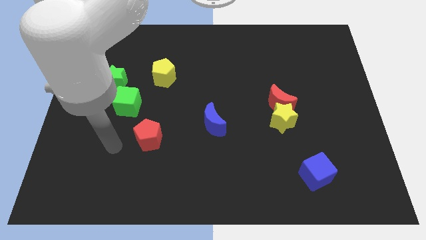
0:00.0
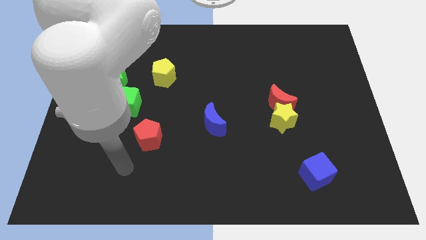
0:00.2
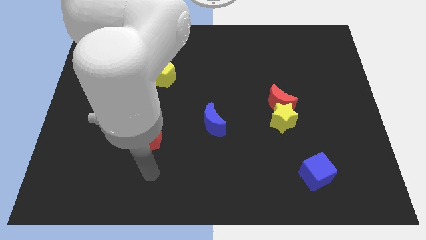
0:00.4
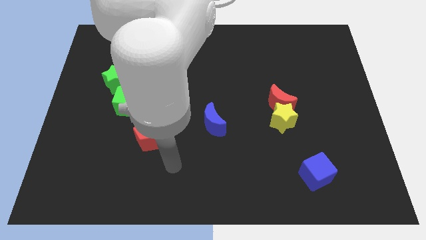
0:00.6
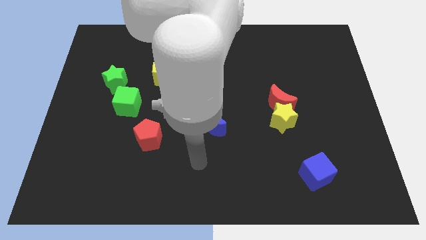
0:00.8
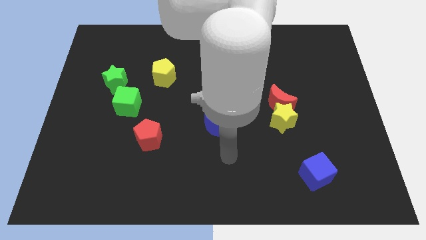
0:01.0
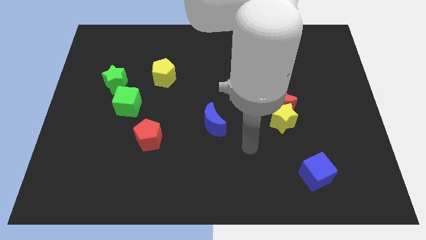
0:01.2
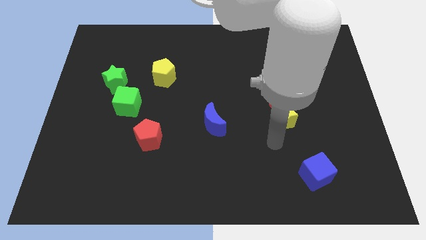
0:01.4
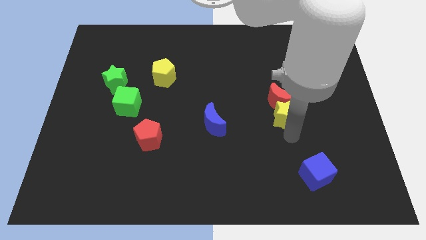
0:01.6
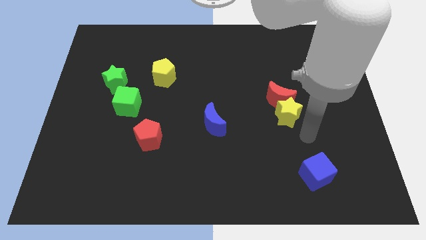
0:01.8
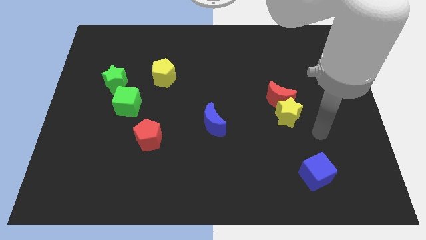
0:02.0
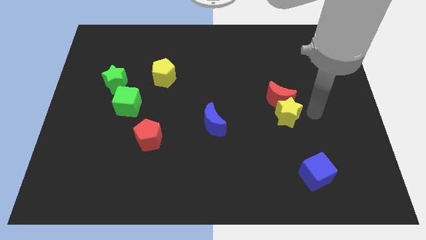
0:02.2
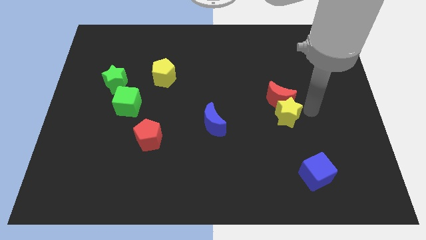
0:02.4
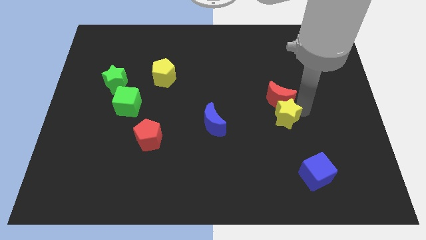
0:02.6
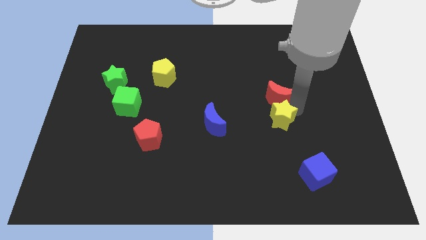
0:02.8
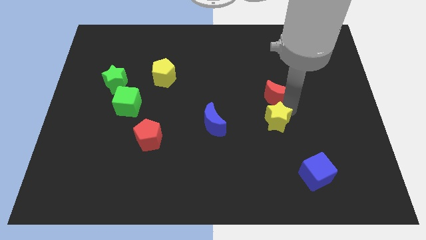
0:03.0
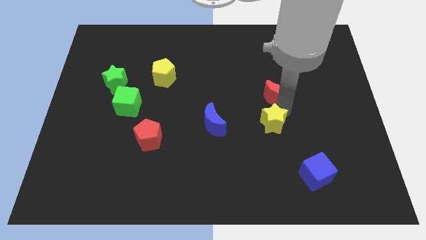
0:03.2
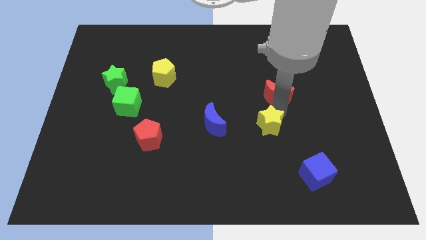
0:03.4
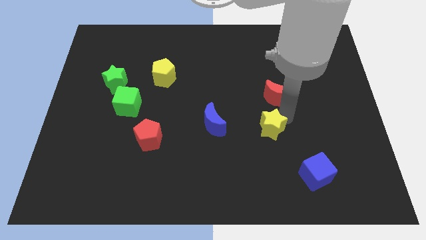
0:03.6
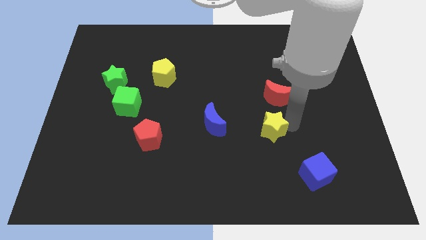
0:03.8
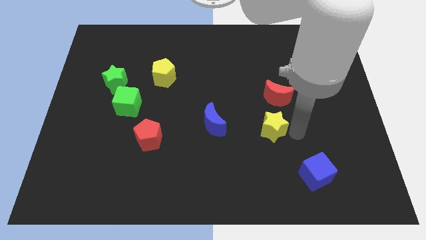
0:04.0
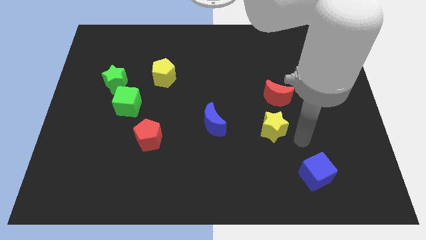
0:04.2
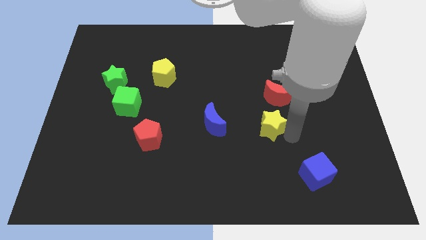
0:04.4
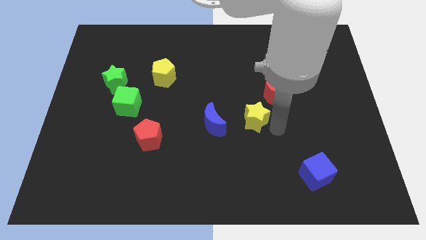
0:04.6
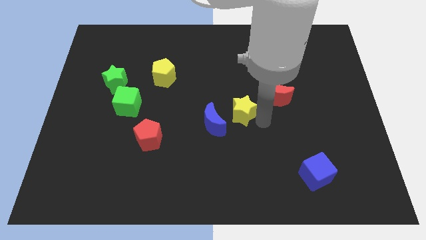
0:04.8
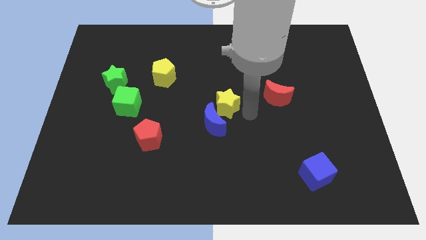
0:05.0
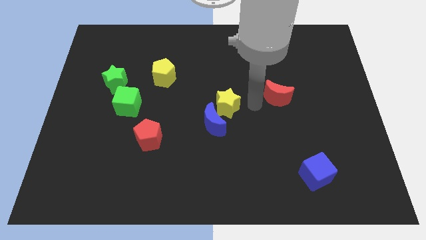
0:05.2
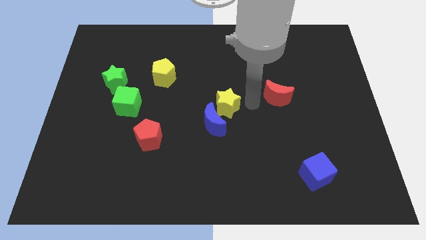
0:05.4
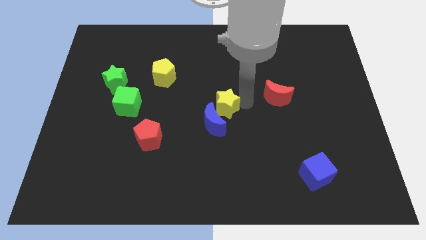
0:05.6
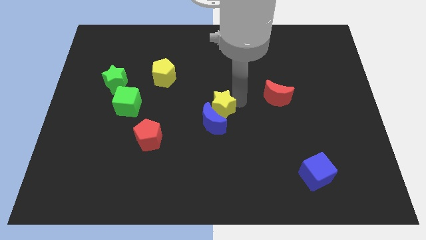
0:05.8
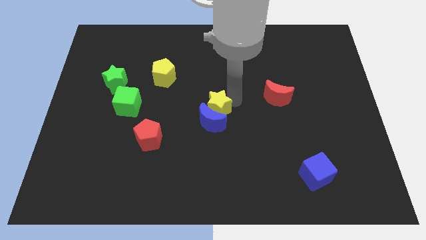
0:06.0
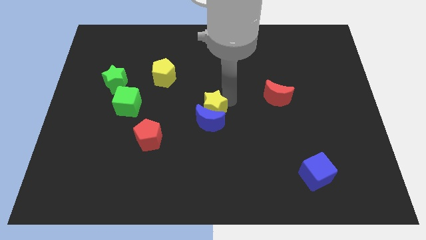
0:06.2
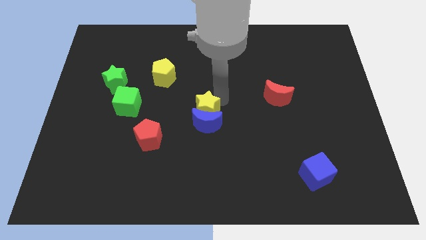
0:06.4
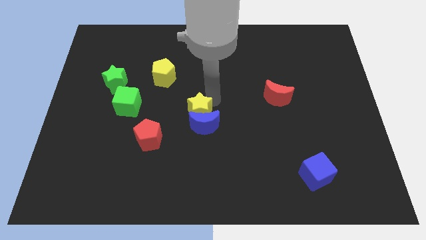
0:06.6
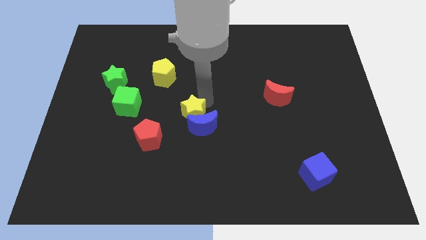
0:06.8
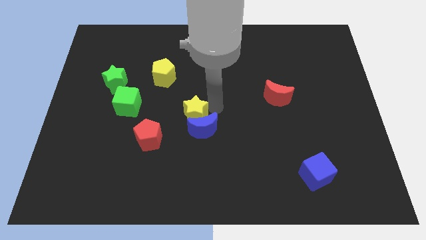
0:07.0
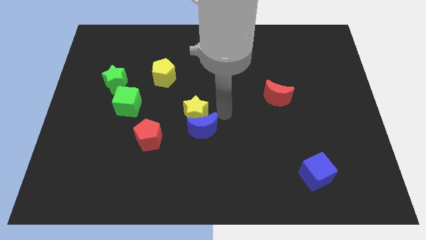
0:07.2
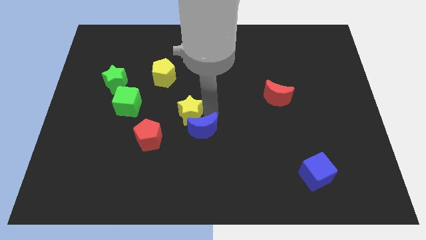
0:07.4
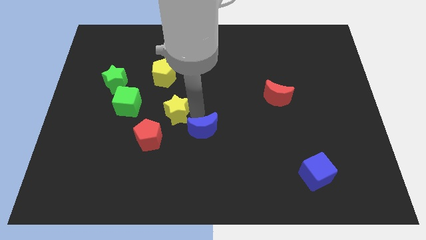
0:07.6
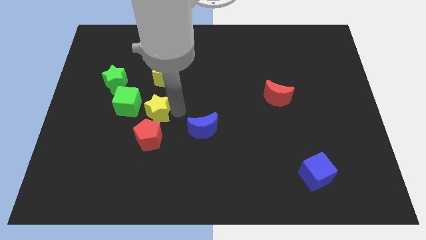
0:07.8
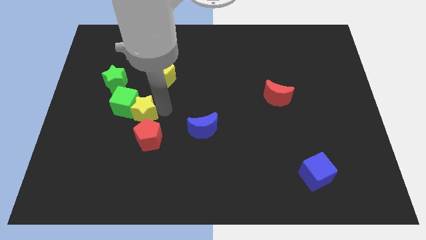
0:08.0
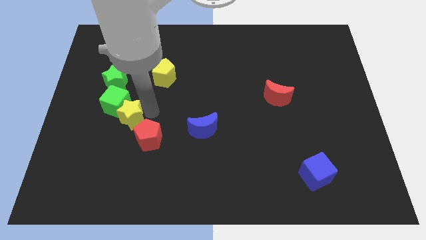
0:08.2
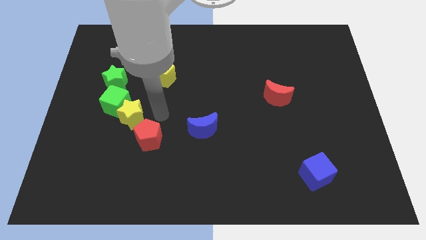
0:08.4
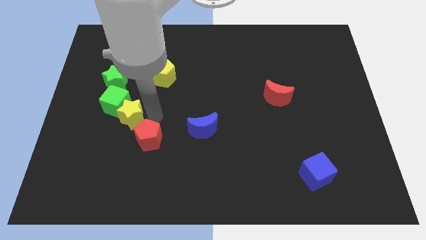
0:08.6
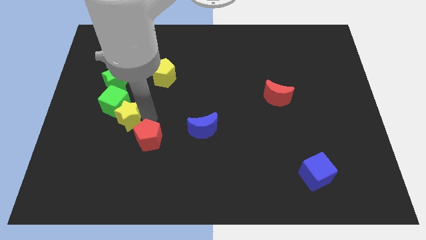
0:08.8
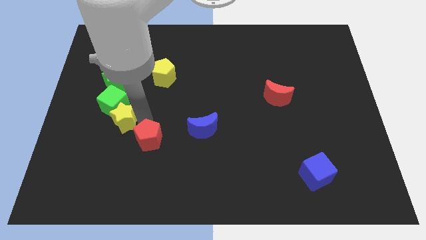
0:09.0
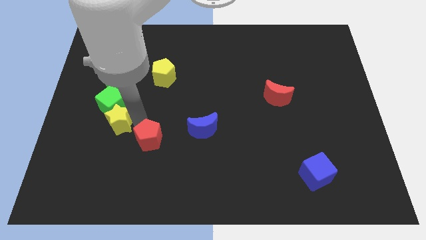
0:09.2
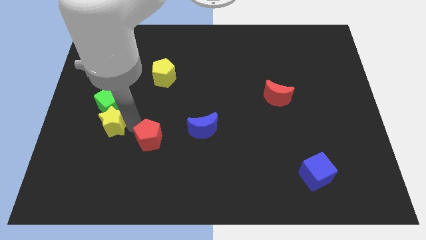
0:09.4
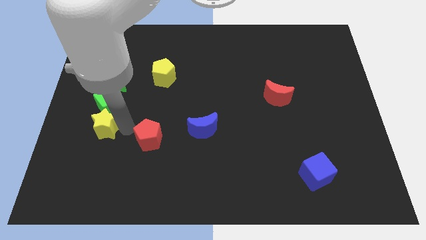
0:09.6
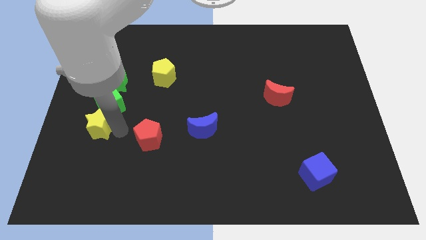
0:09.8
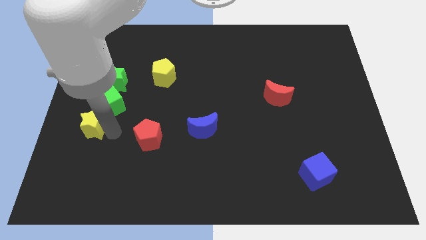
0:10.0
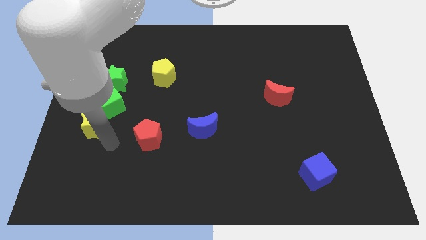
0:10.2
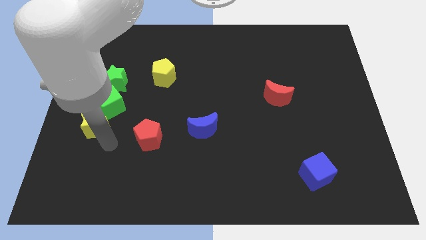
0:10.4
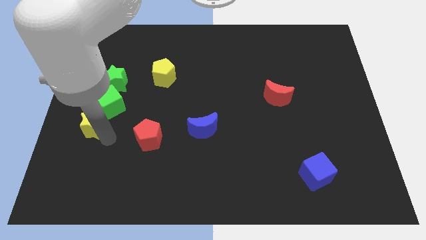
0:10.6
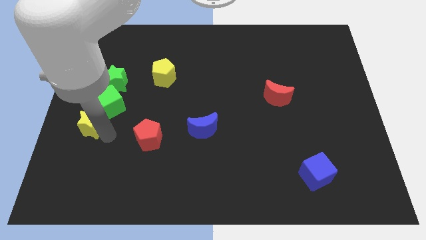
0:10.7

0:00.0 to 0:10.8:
push the yellow star to the left side of the board
